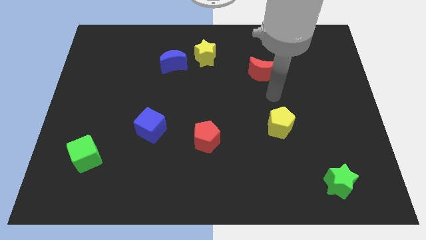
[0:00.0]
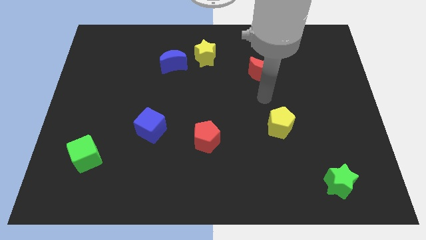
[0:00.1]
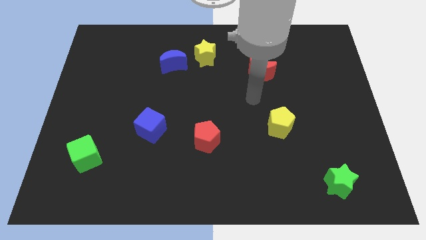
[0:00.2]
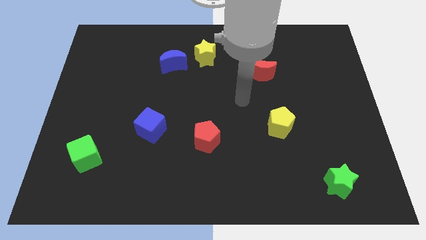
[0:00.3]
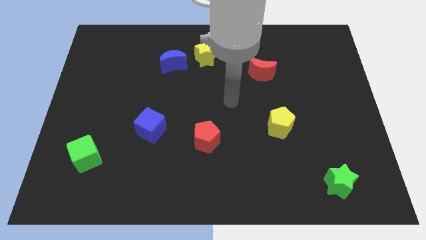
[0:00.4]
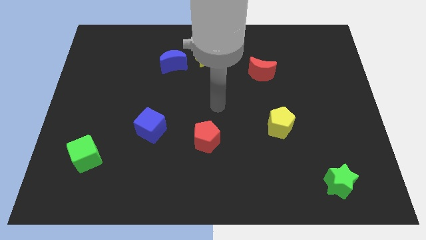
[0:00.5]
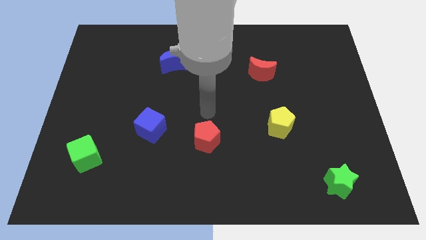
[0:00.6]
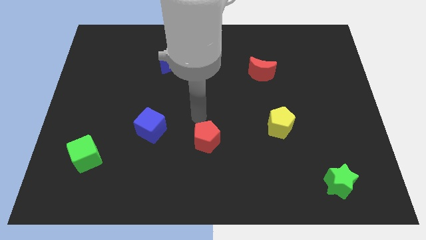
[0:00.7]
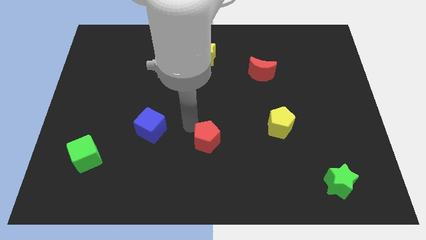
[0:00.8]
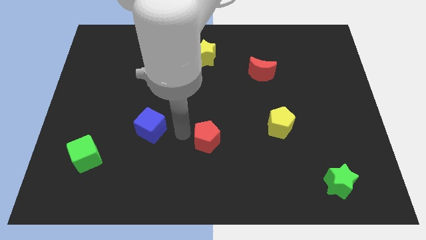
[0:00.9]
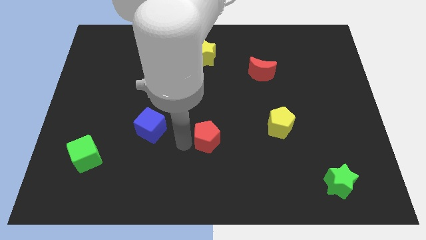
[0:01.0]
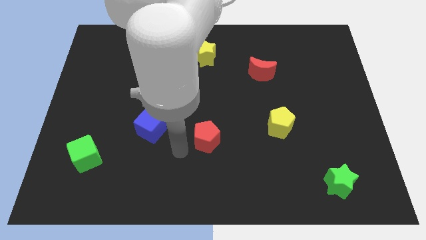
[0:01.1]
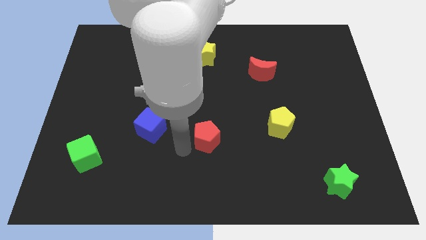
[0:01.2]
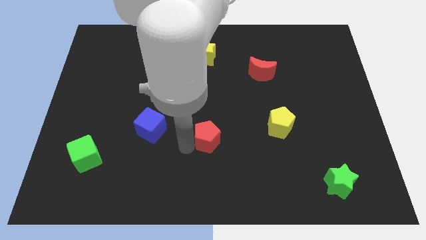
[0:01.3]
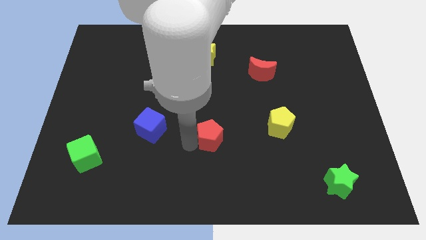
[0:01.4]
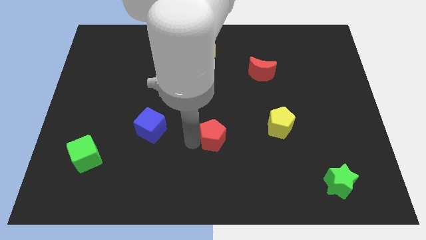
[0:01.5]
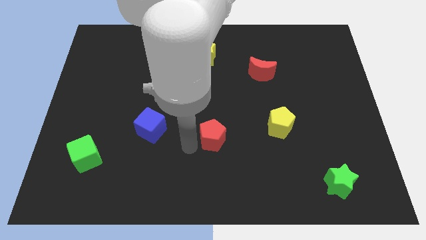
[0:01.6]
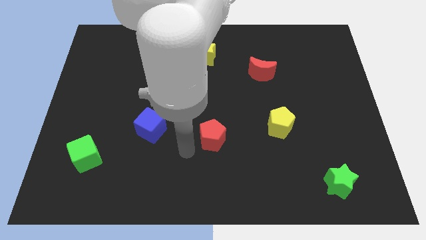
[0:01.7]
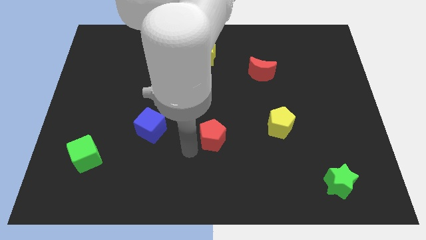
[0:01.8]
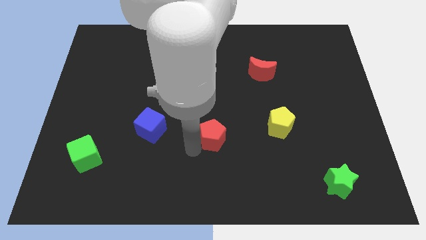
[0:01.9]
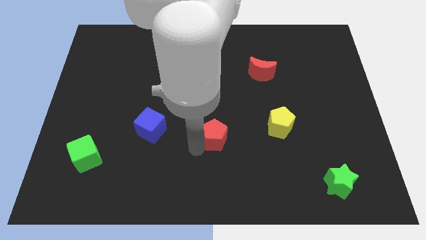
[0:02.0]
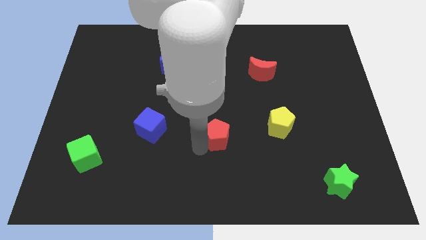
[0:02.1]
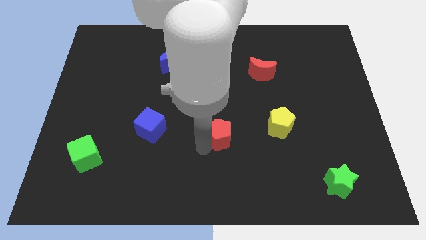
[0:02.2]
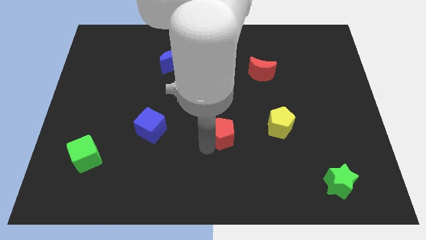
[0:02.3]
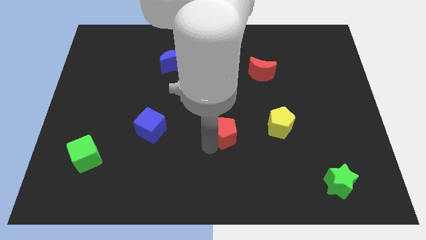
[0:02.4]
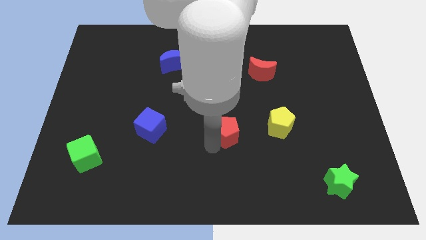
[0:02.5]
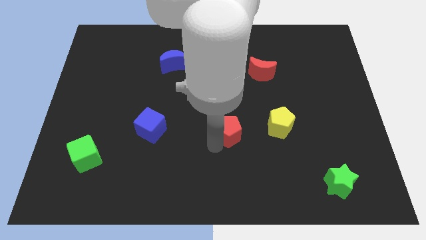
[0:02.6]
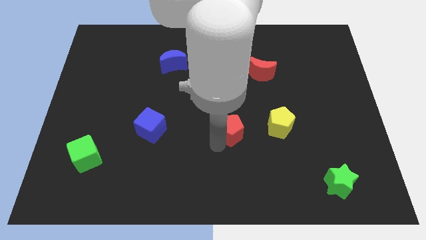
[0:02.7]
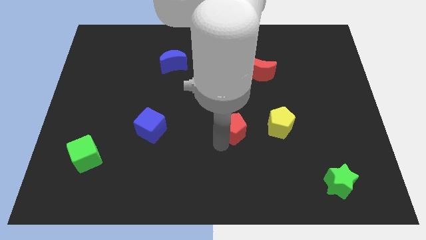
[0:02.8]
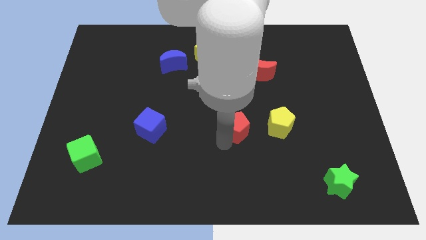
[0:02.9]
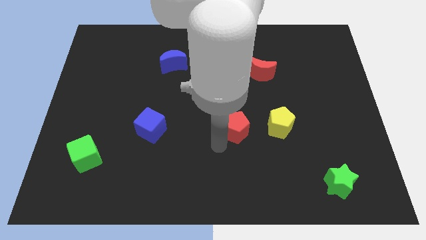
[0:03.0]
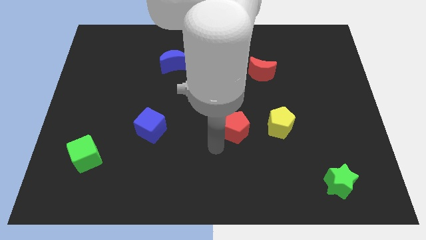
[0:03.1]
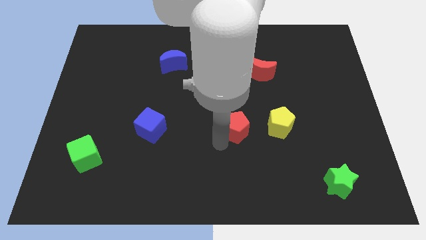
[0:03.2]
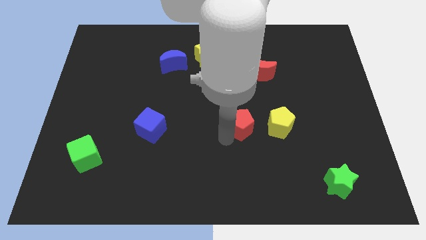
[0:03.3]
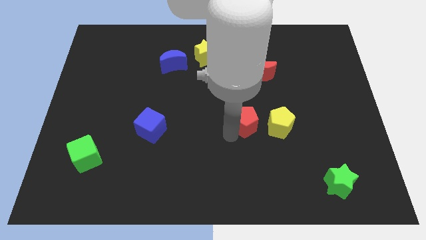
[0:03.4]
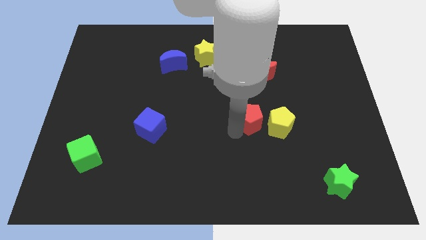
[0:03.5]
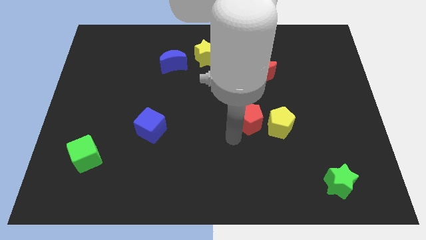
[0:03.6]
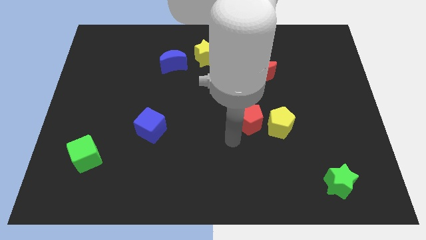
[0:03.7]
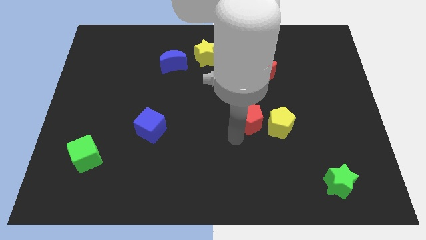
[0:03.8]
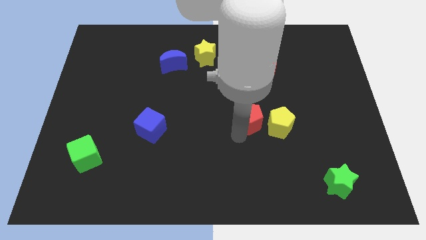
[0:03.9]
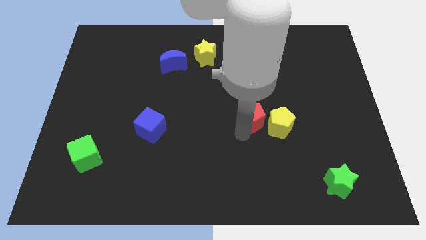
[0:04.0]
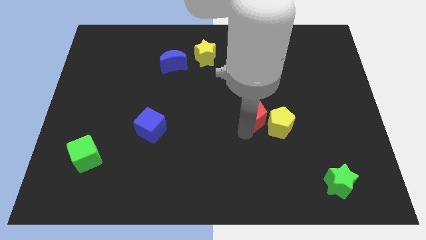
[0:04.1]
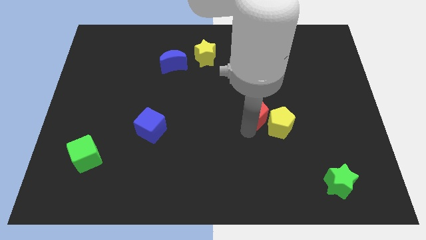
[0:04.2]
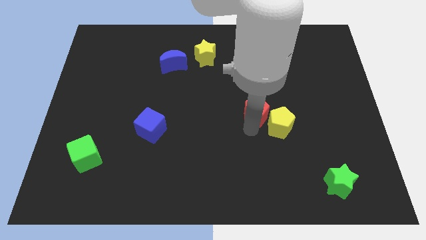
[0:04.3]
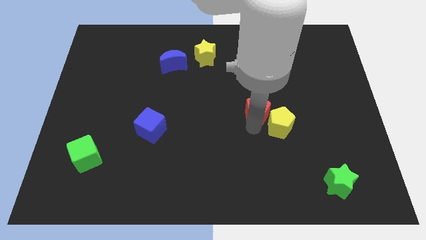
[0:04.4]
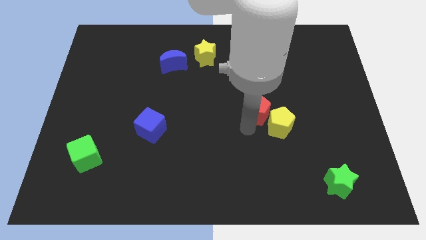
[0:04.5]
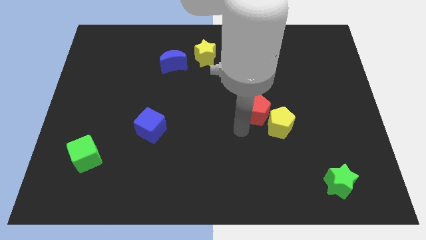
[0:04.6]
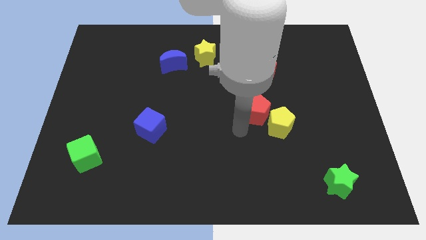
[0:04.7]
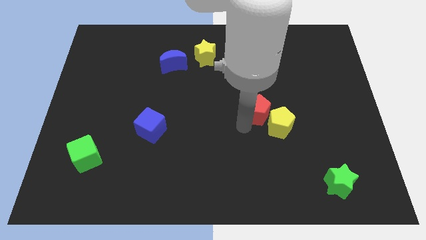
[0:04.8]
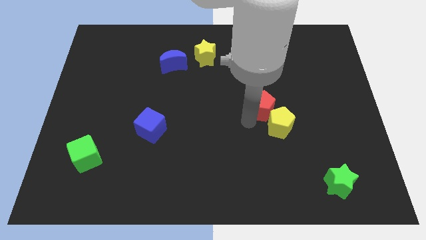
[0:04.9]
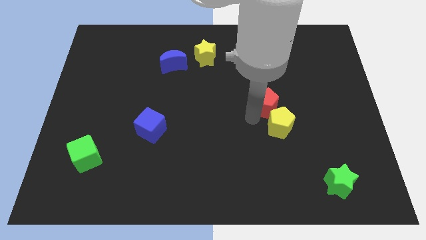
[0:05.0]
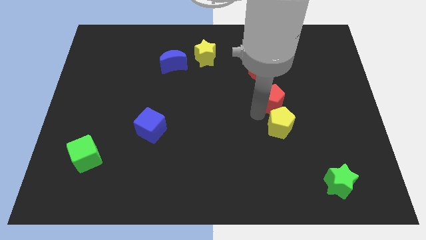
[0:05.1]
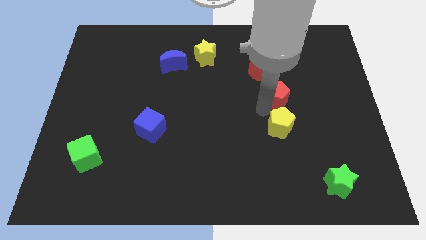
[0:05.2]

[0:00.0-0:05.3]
move the red pentagon diagonally upwards and right

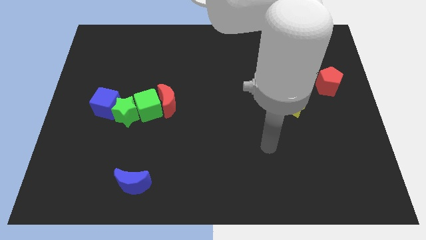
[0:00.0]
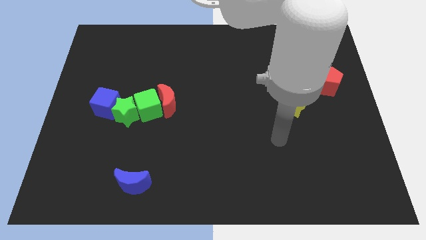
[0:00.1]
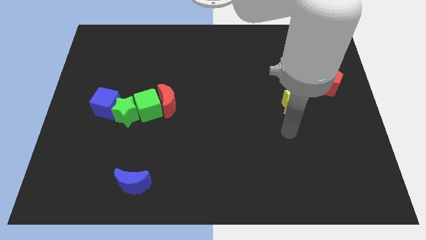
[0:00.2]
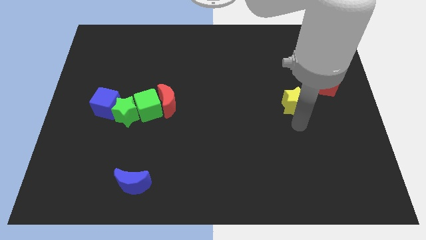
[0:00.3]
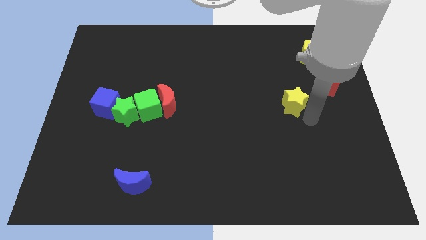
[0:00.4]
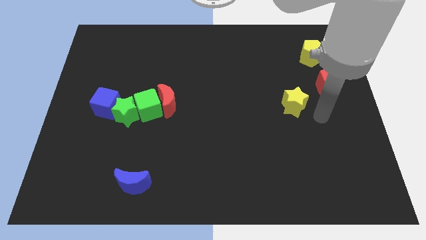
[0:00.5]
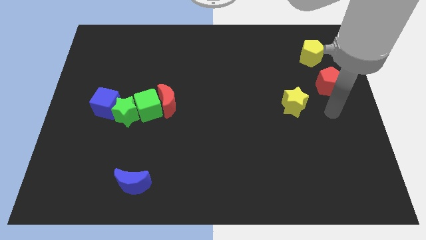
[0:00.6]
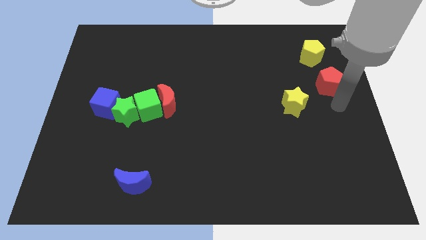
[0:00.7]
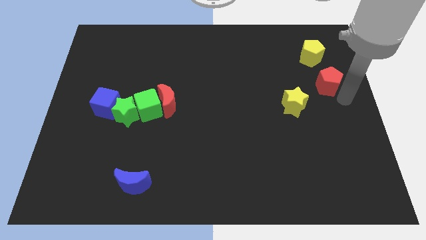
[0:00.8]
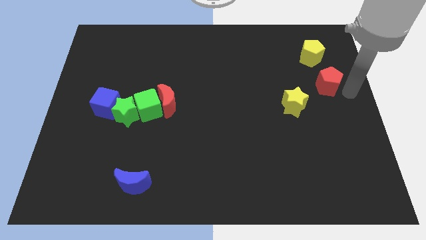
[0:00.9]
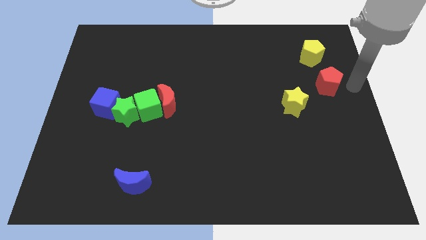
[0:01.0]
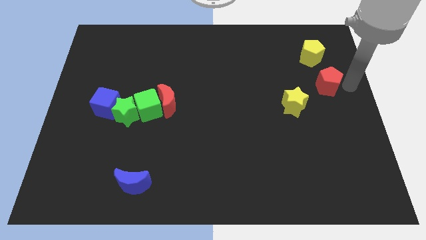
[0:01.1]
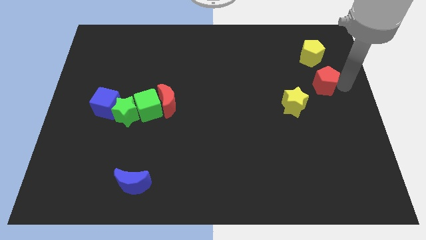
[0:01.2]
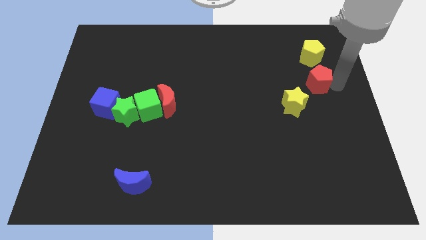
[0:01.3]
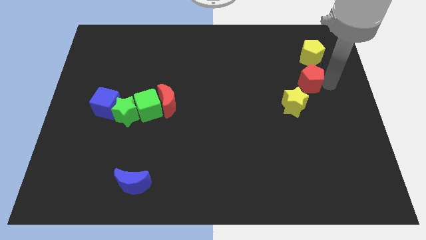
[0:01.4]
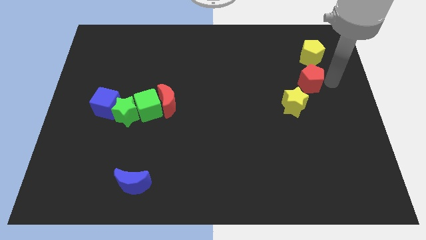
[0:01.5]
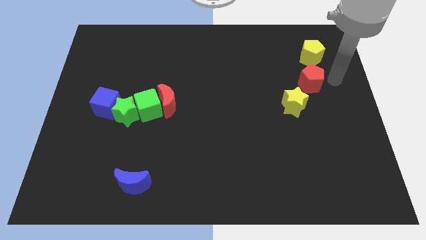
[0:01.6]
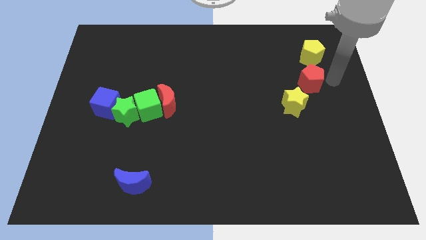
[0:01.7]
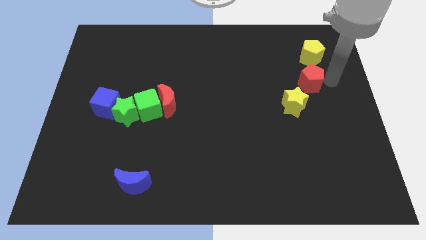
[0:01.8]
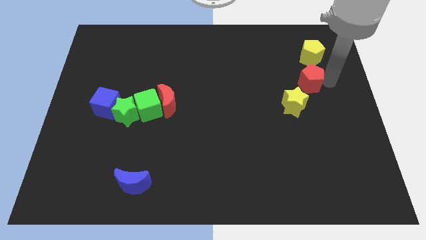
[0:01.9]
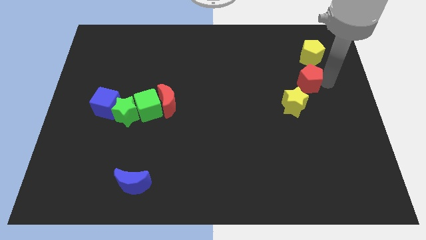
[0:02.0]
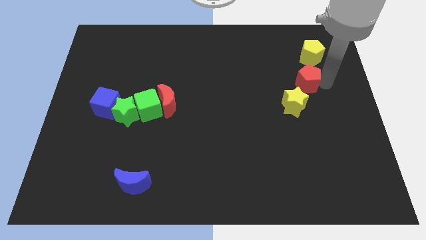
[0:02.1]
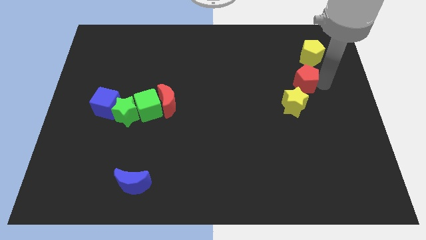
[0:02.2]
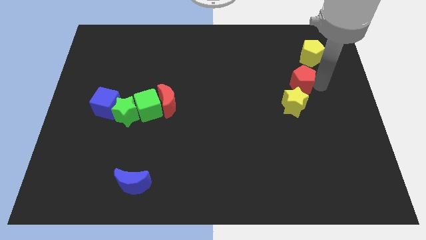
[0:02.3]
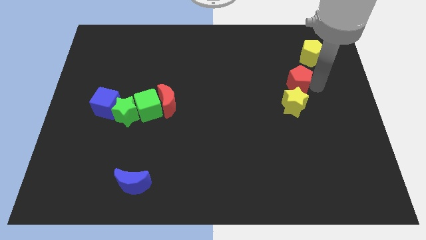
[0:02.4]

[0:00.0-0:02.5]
move the red pentagon slightly left

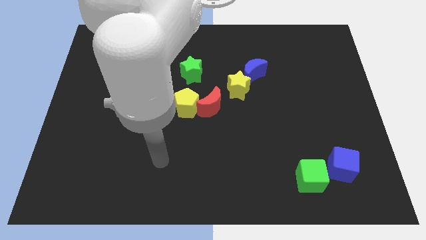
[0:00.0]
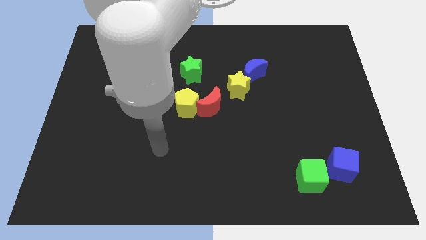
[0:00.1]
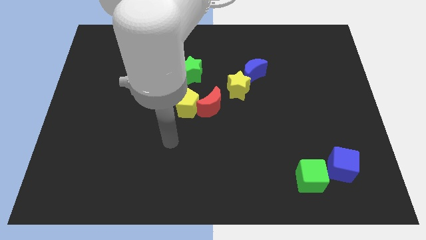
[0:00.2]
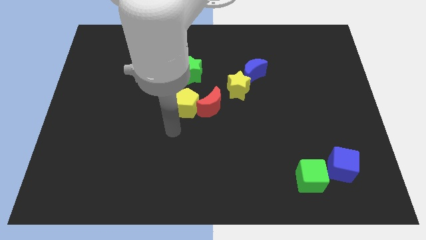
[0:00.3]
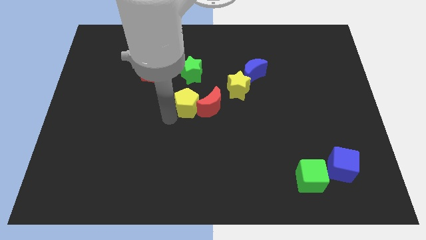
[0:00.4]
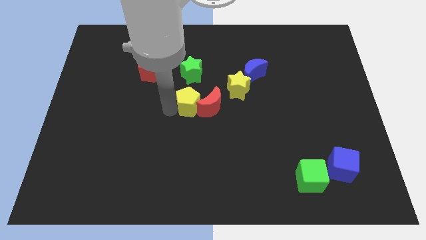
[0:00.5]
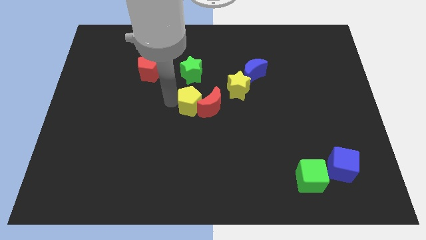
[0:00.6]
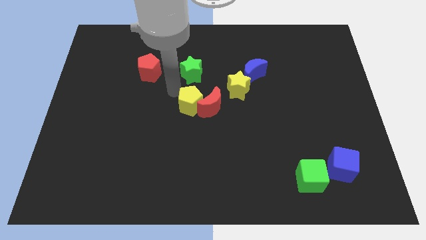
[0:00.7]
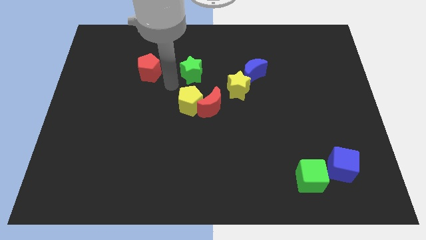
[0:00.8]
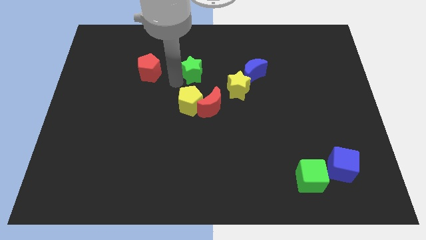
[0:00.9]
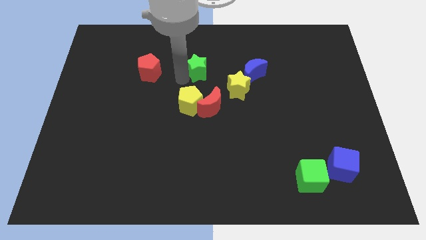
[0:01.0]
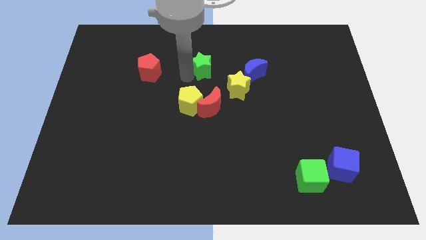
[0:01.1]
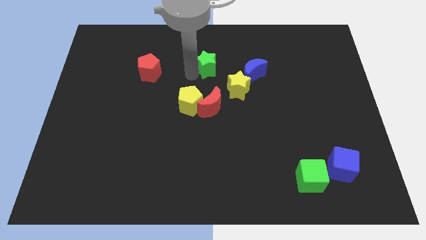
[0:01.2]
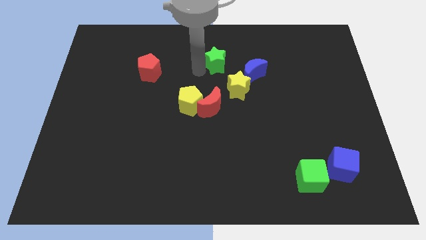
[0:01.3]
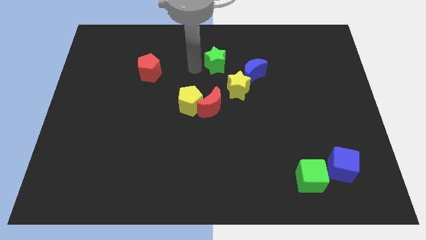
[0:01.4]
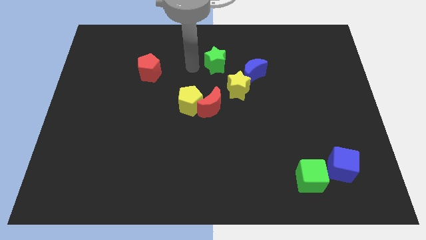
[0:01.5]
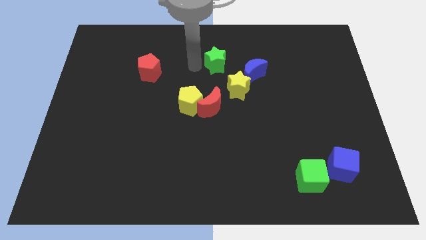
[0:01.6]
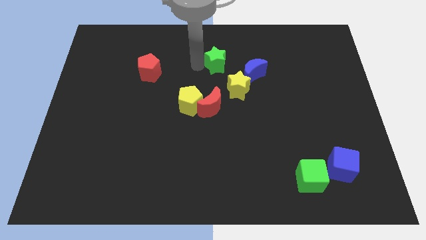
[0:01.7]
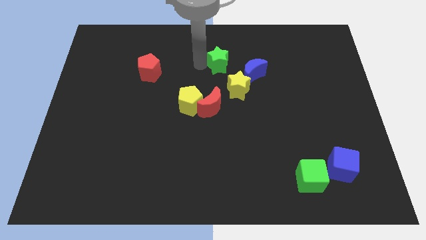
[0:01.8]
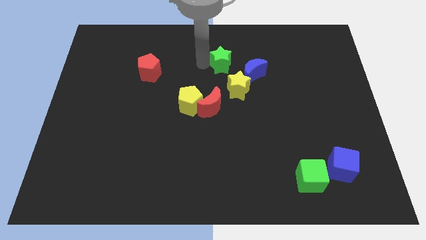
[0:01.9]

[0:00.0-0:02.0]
slightly push the green star right
